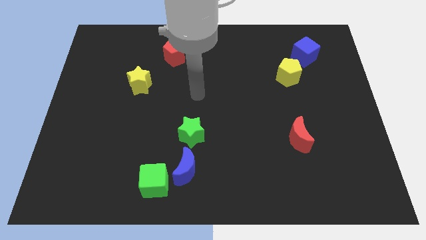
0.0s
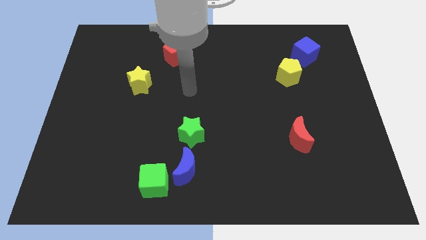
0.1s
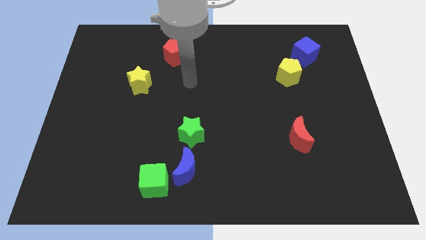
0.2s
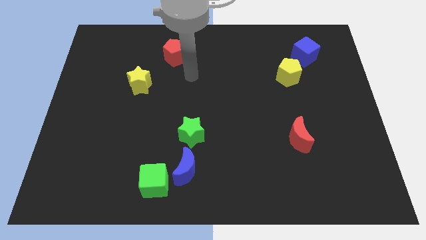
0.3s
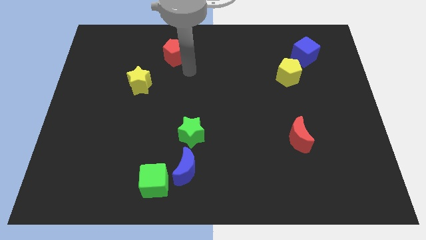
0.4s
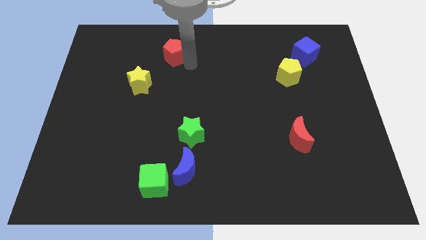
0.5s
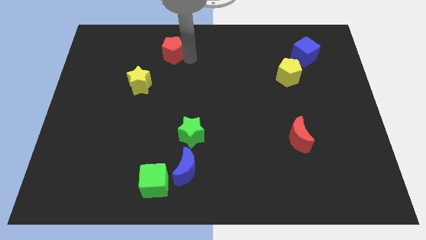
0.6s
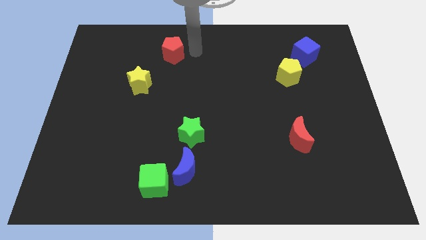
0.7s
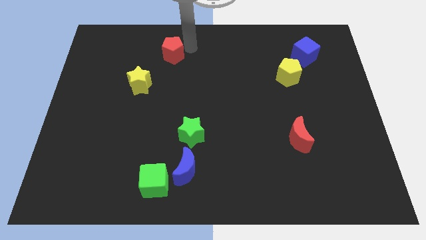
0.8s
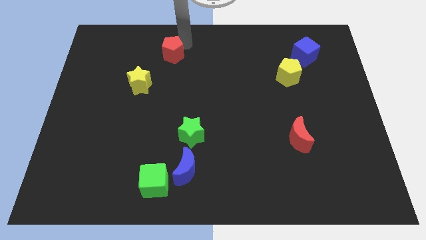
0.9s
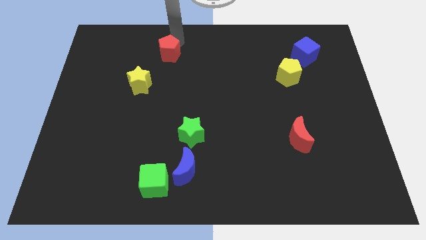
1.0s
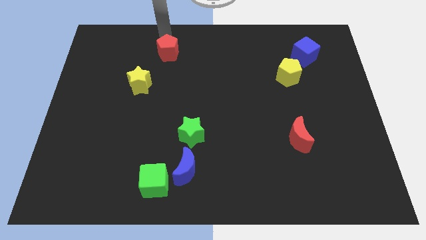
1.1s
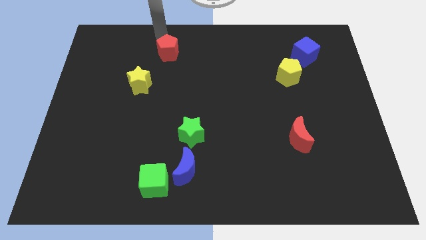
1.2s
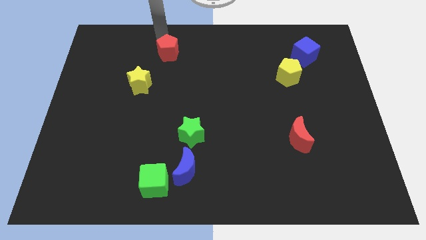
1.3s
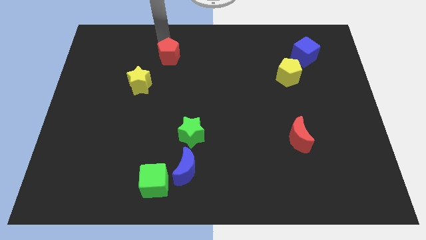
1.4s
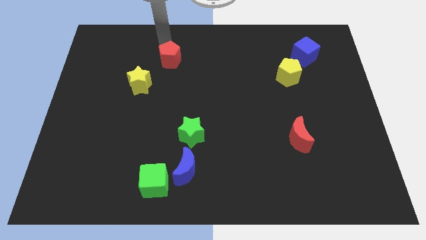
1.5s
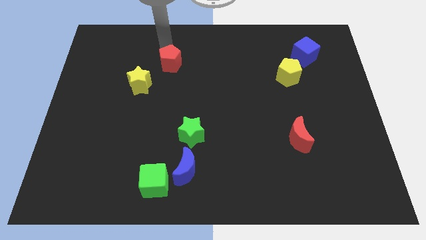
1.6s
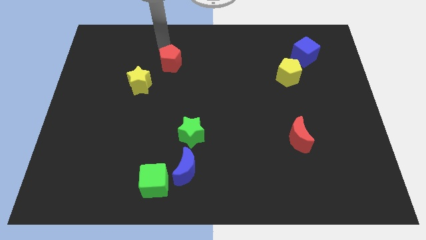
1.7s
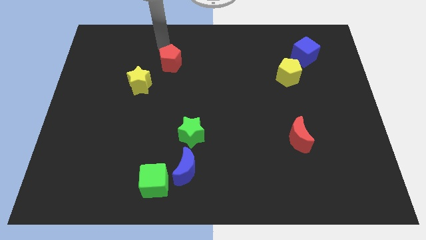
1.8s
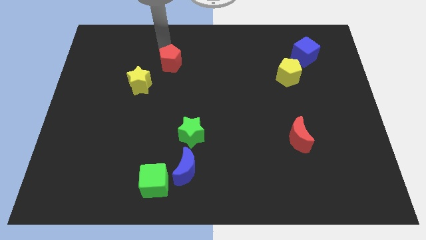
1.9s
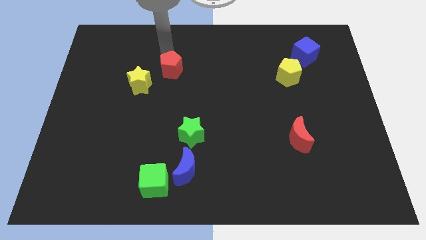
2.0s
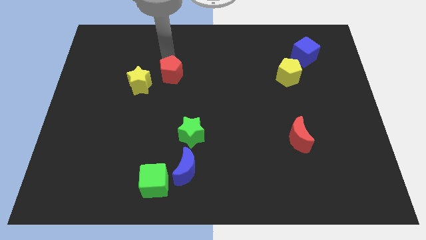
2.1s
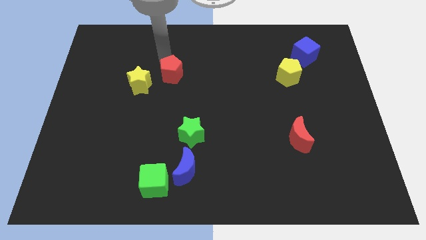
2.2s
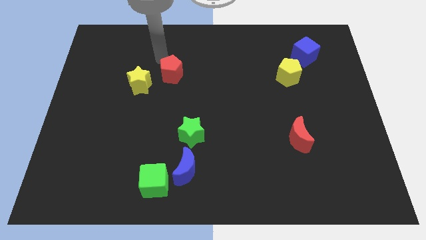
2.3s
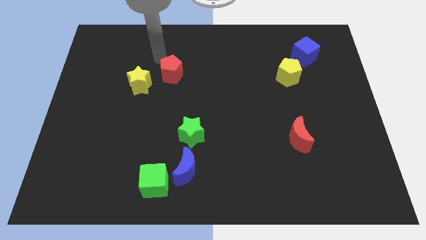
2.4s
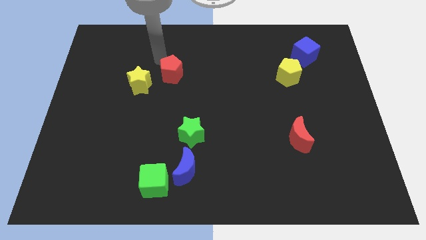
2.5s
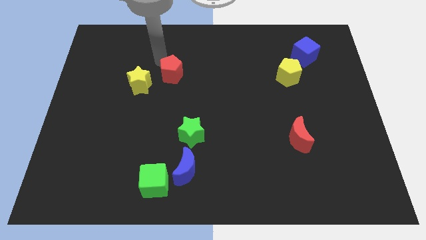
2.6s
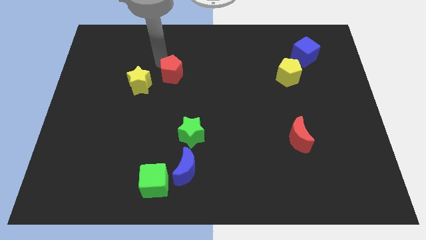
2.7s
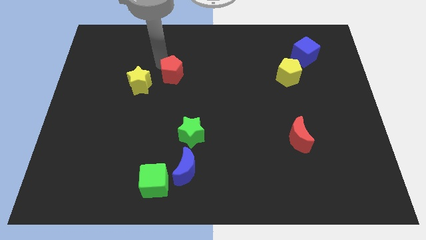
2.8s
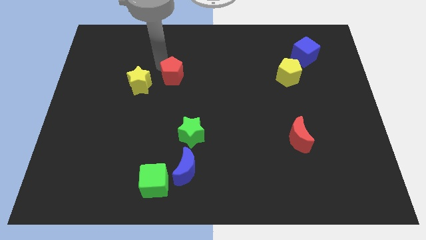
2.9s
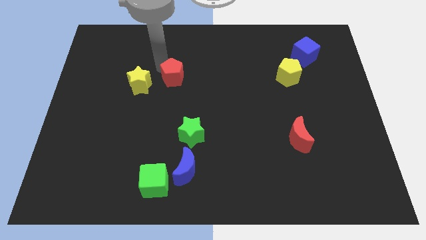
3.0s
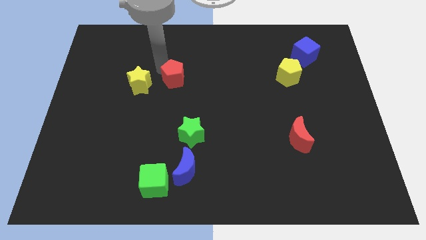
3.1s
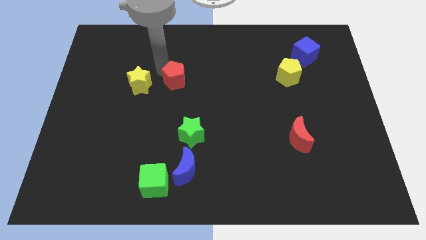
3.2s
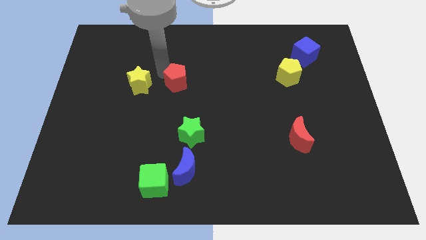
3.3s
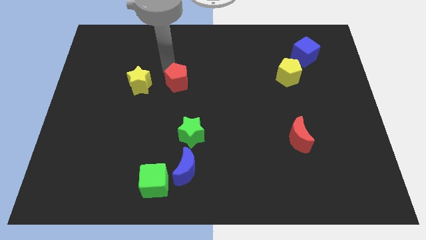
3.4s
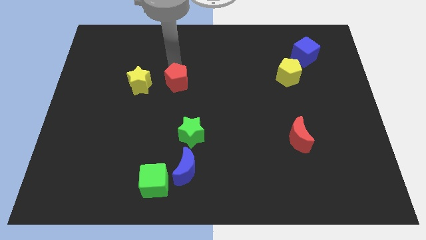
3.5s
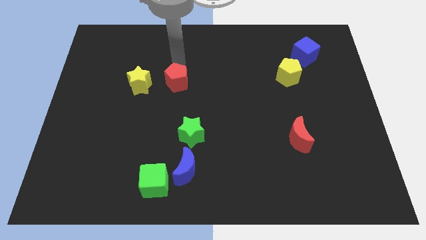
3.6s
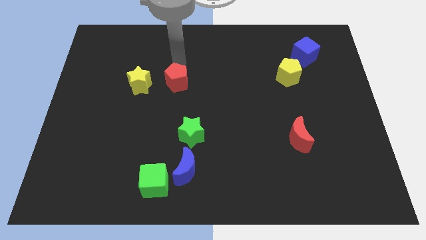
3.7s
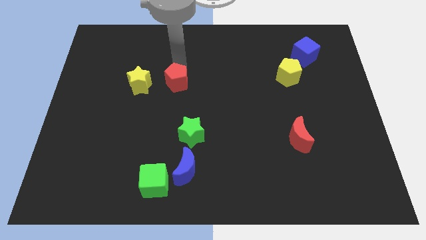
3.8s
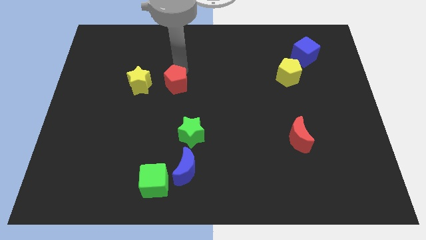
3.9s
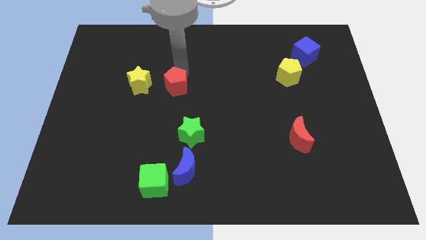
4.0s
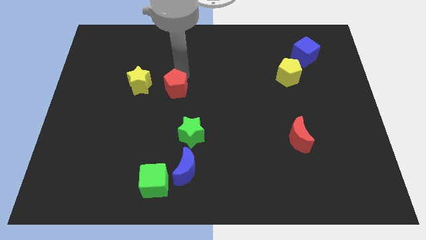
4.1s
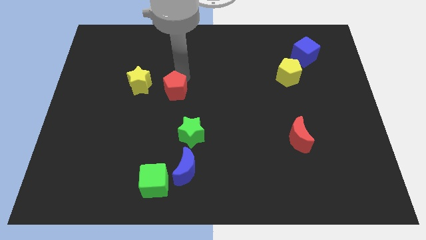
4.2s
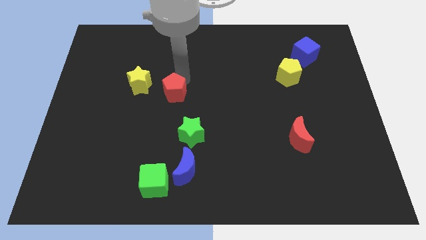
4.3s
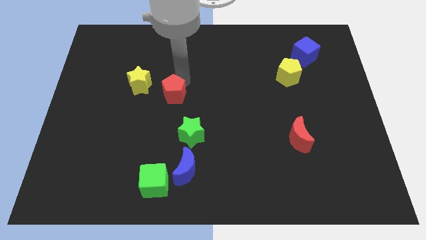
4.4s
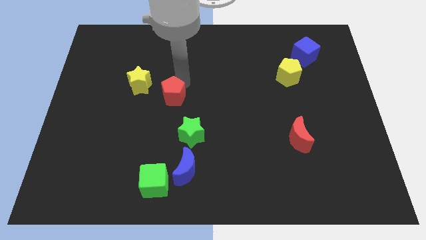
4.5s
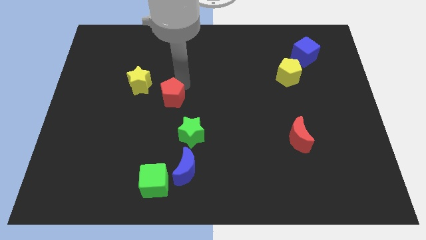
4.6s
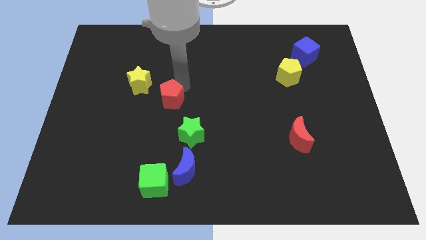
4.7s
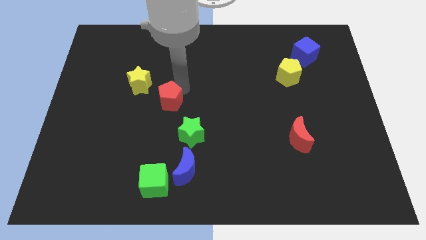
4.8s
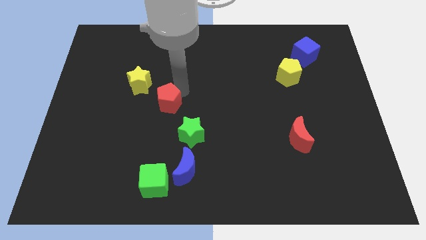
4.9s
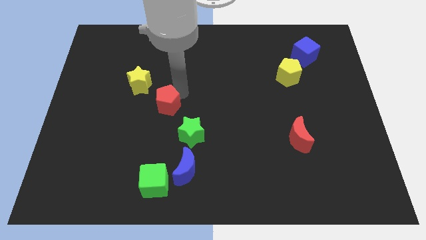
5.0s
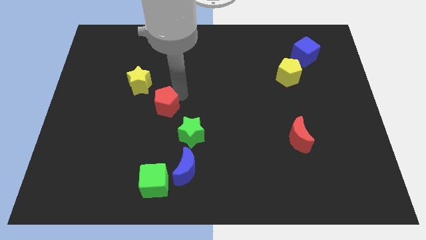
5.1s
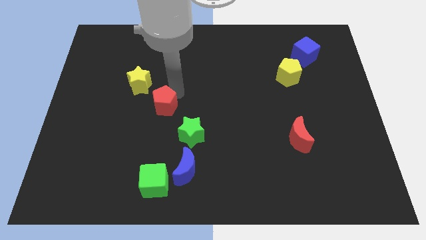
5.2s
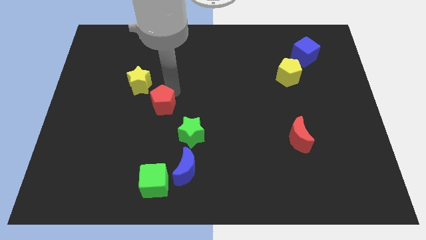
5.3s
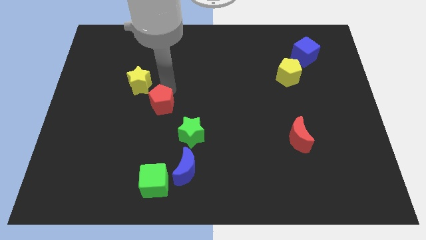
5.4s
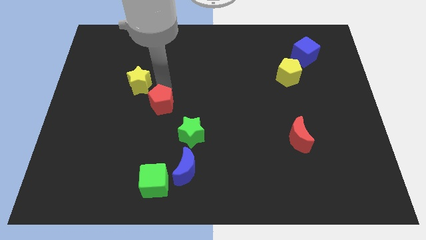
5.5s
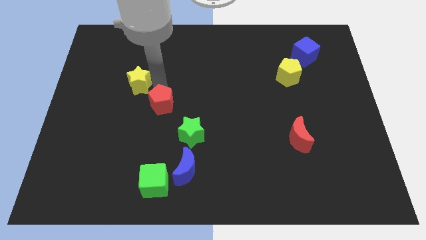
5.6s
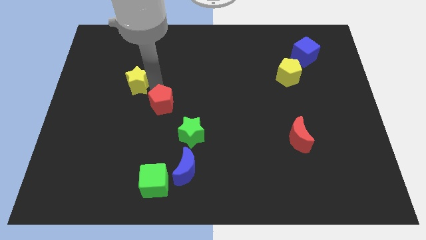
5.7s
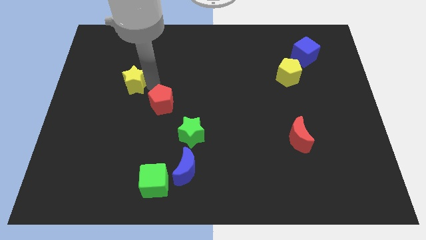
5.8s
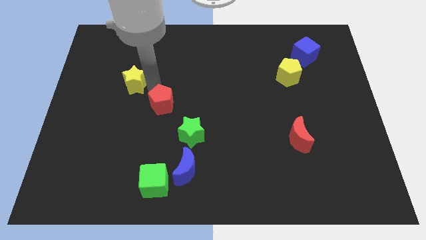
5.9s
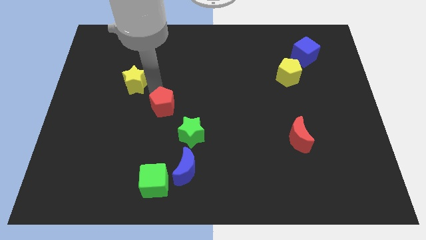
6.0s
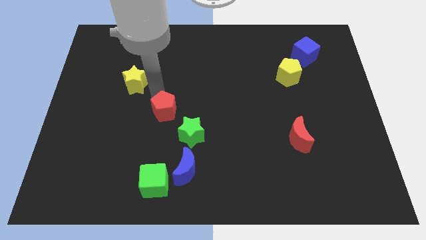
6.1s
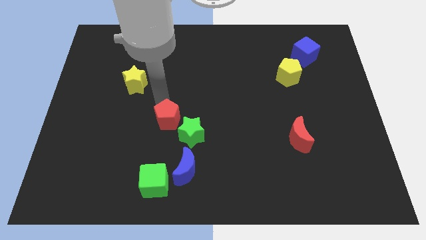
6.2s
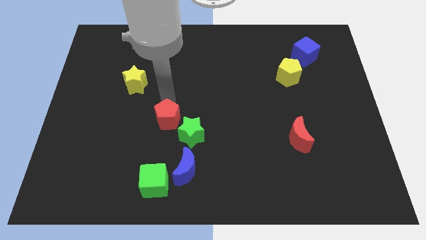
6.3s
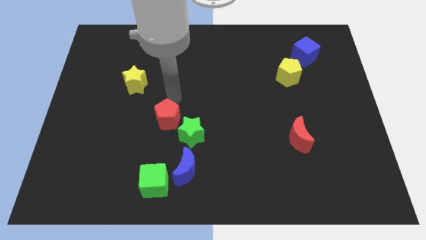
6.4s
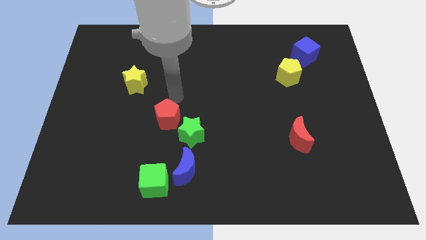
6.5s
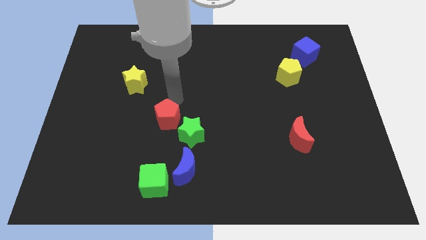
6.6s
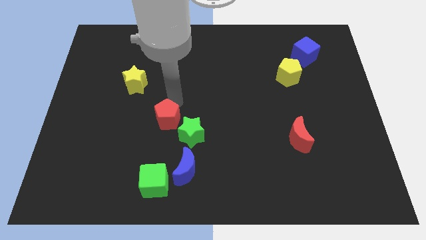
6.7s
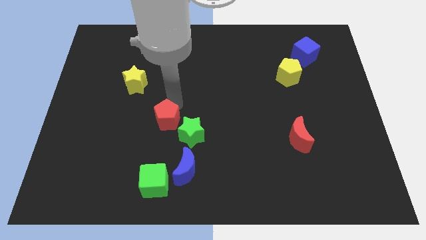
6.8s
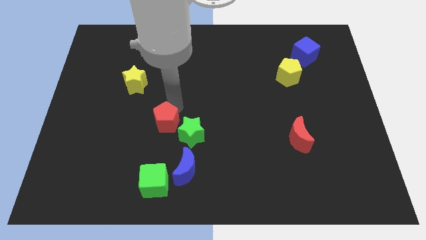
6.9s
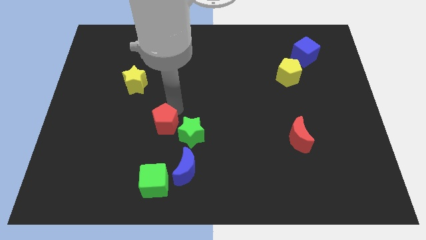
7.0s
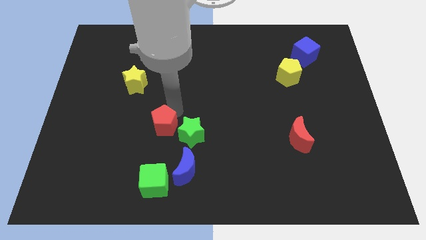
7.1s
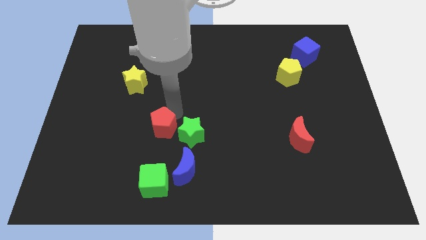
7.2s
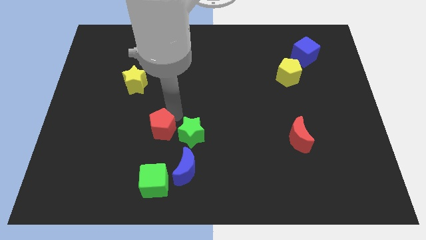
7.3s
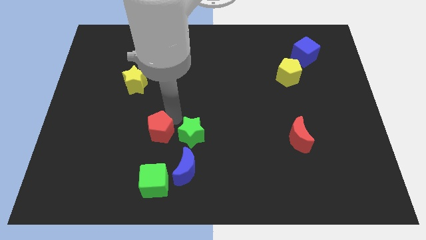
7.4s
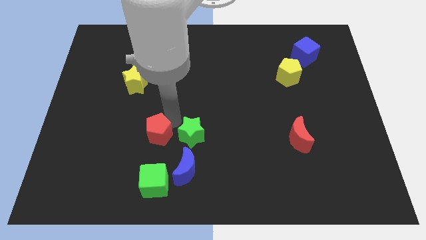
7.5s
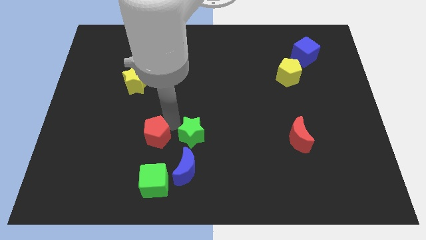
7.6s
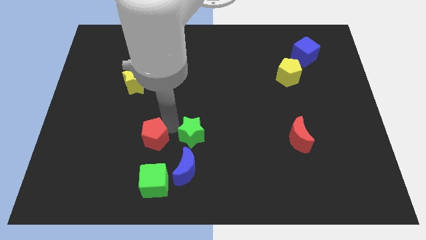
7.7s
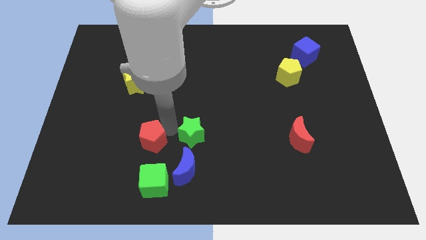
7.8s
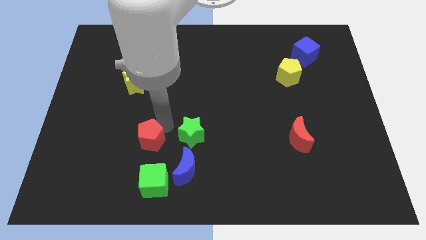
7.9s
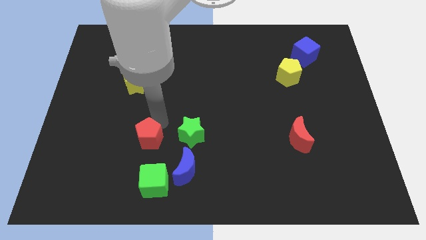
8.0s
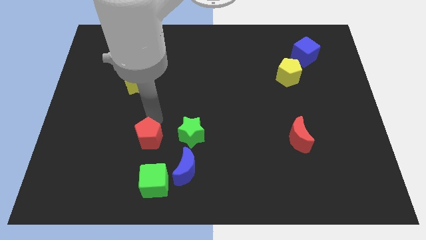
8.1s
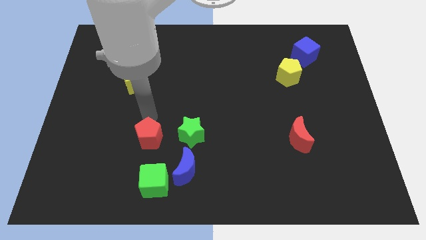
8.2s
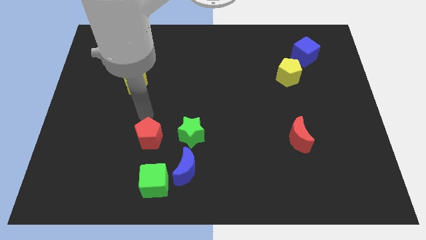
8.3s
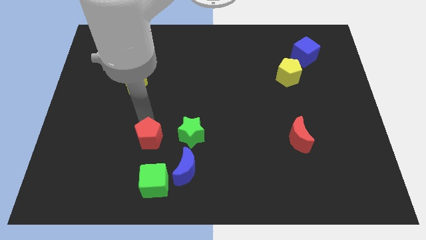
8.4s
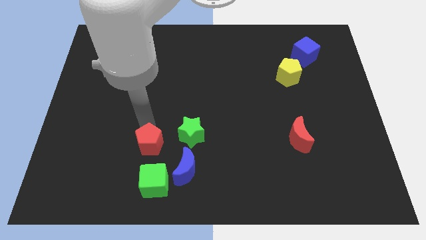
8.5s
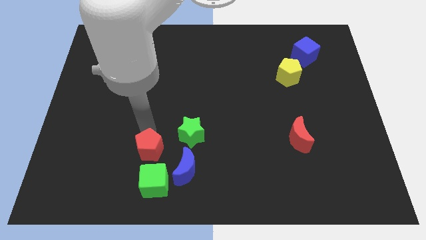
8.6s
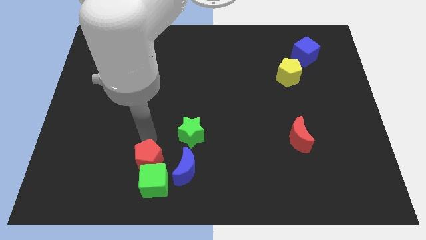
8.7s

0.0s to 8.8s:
push the red pentagon next to the green cube
